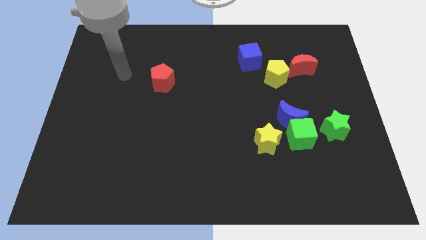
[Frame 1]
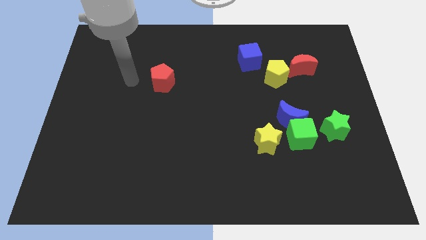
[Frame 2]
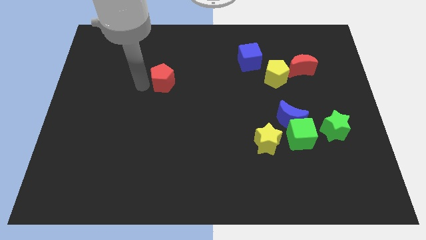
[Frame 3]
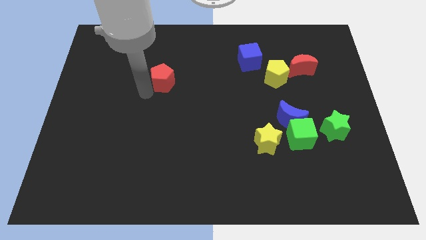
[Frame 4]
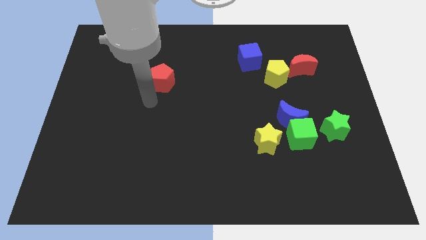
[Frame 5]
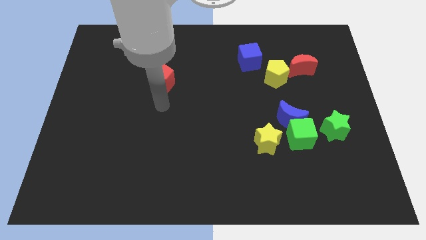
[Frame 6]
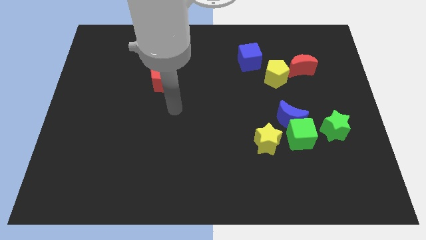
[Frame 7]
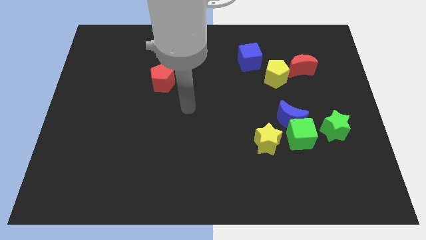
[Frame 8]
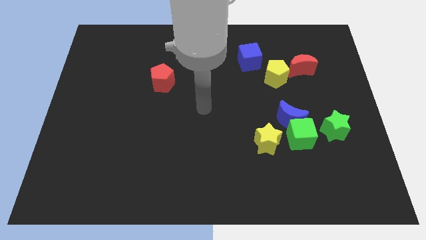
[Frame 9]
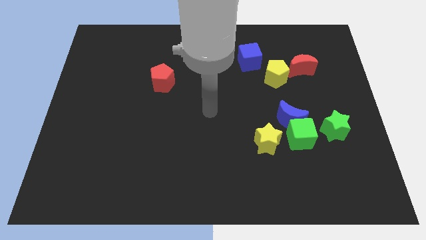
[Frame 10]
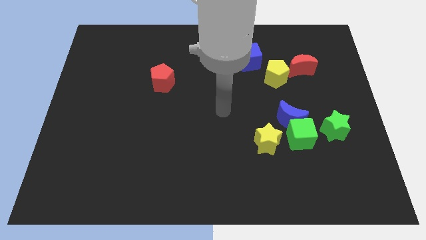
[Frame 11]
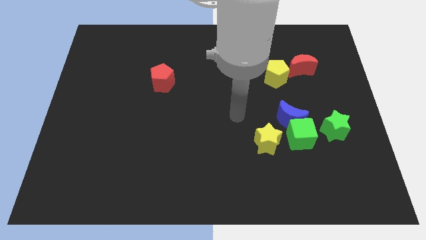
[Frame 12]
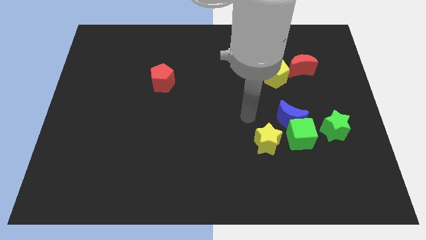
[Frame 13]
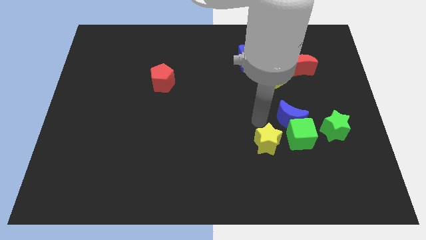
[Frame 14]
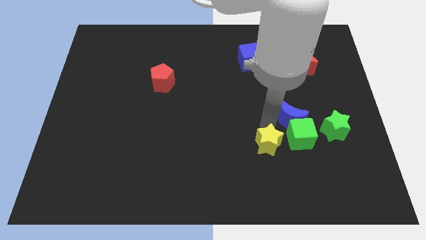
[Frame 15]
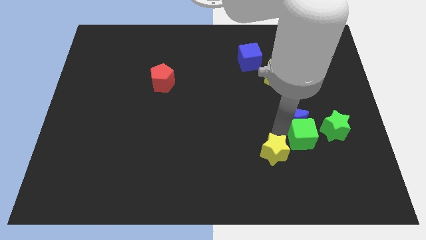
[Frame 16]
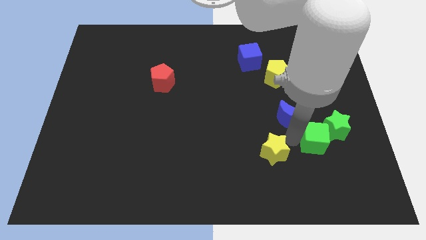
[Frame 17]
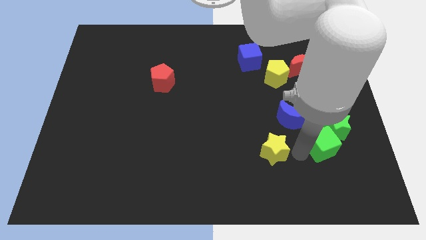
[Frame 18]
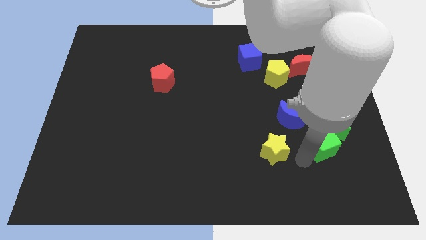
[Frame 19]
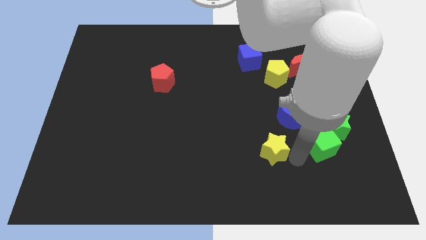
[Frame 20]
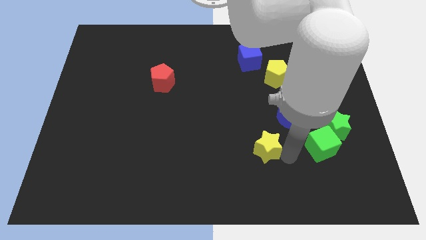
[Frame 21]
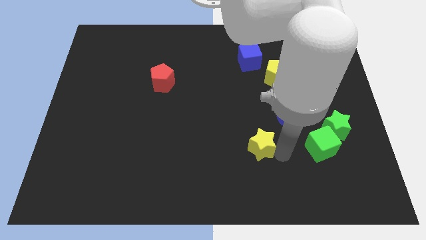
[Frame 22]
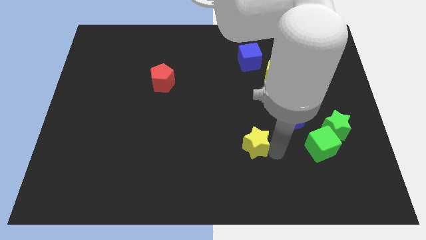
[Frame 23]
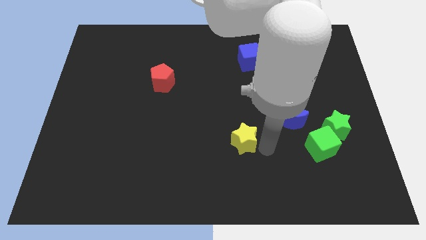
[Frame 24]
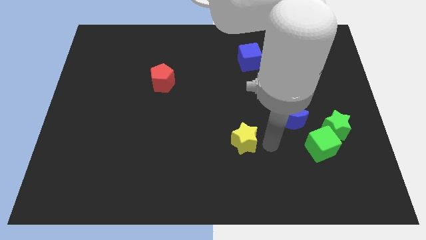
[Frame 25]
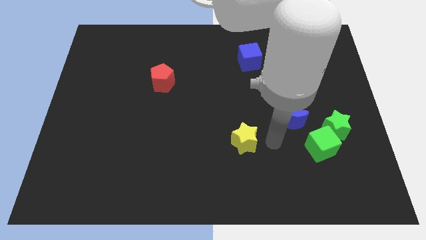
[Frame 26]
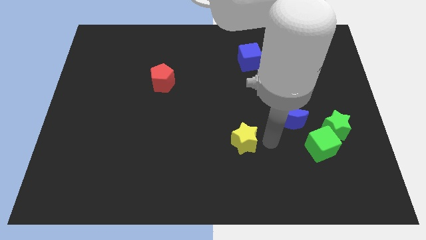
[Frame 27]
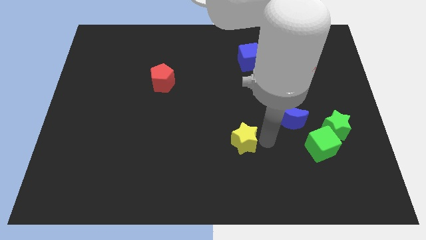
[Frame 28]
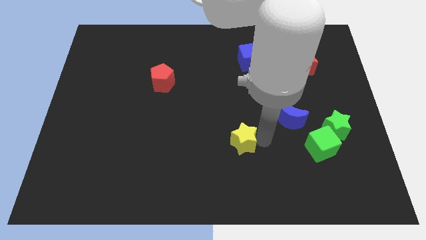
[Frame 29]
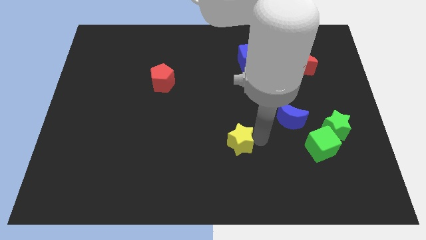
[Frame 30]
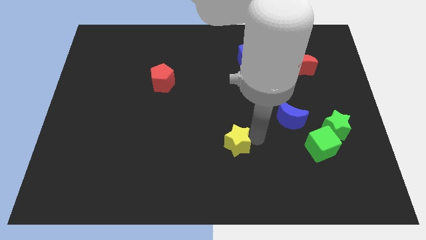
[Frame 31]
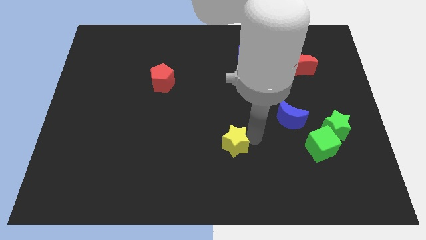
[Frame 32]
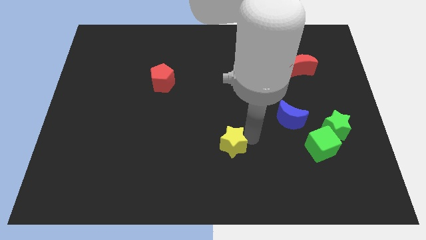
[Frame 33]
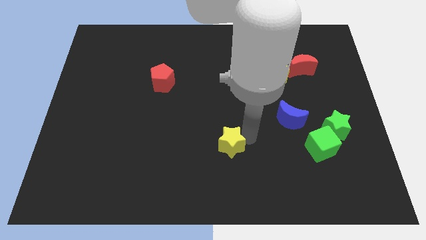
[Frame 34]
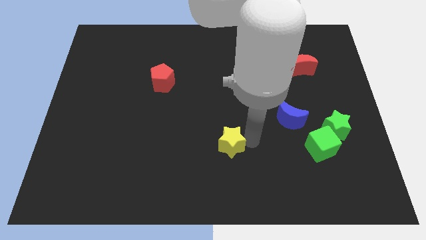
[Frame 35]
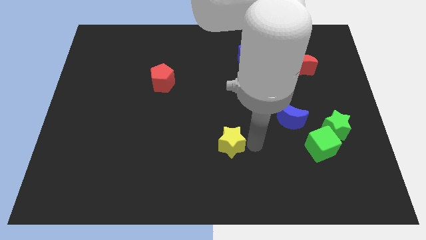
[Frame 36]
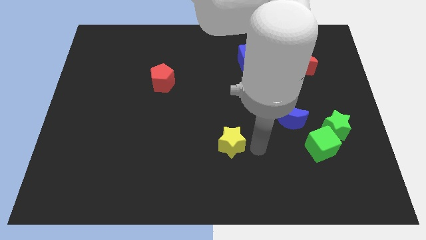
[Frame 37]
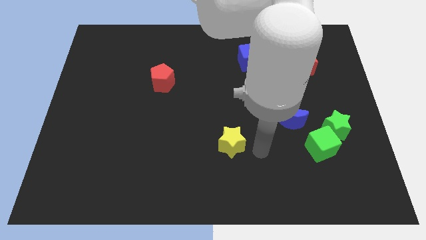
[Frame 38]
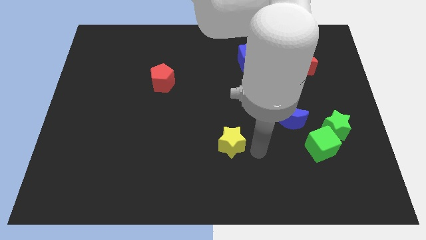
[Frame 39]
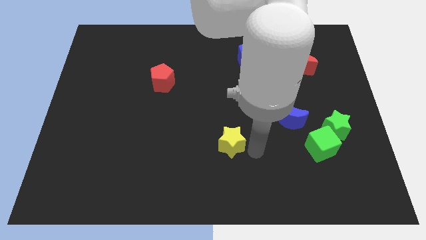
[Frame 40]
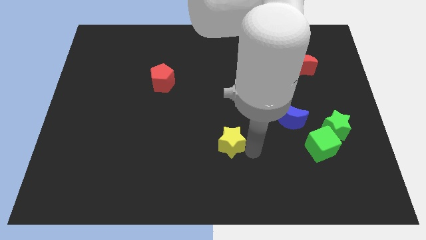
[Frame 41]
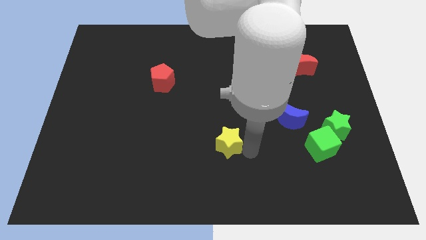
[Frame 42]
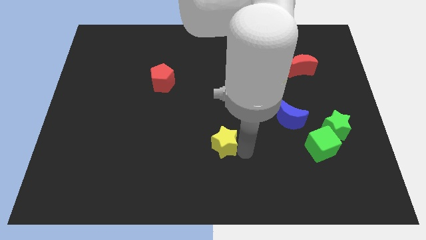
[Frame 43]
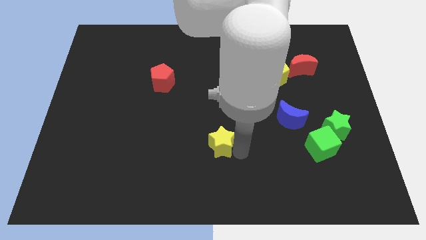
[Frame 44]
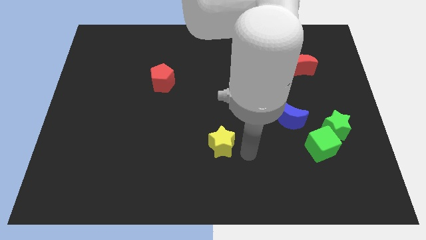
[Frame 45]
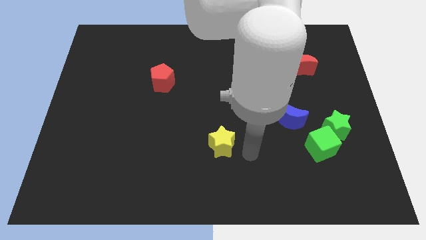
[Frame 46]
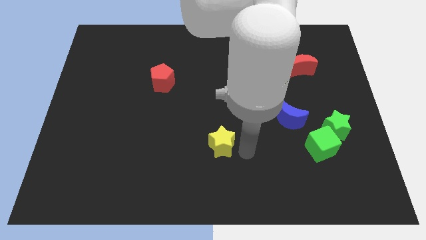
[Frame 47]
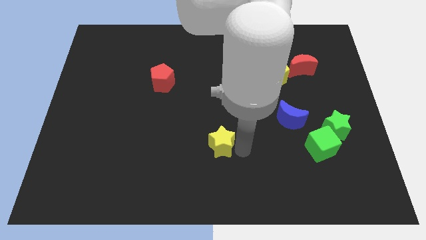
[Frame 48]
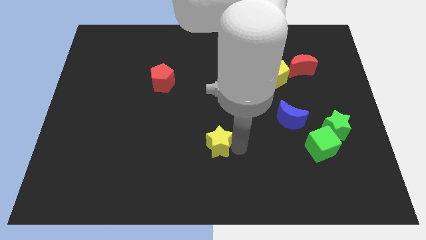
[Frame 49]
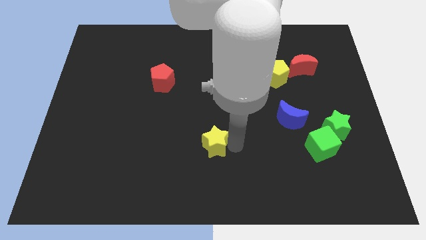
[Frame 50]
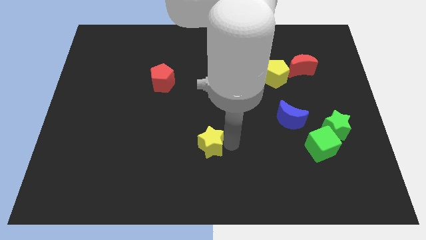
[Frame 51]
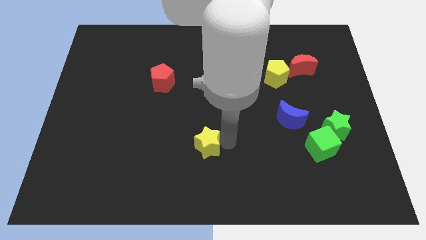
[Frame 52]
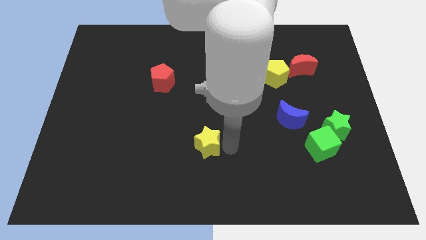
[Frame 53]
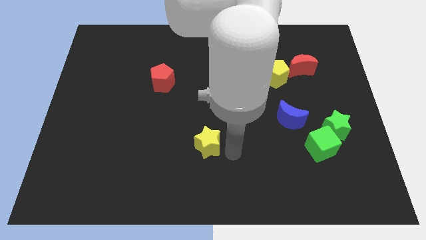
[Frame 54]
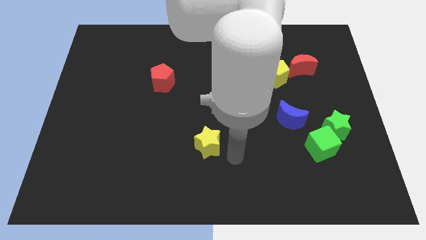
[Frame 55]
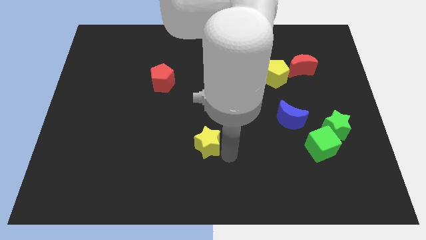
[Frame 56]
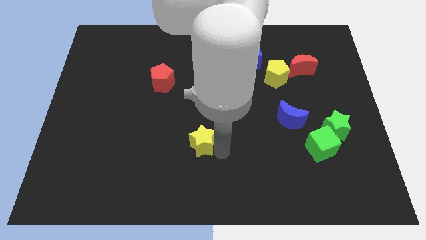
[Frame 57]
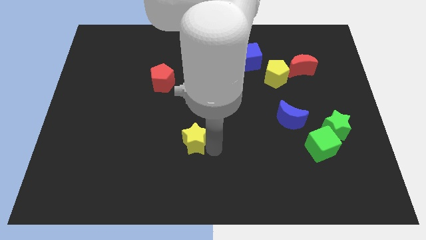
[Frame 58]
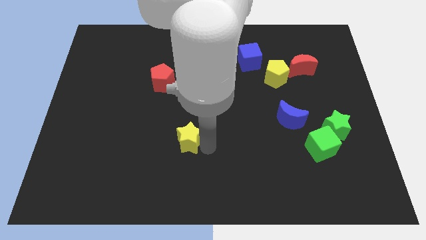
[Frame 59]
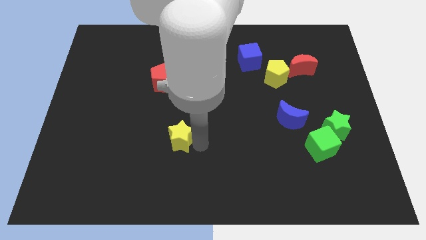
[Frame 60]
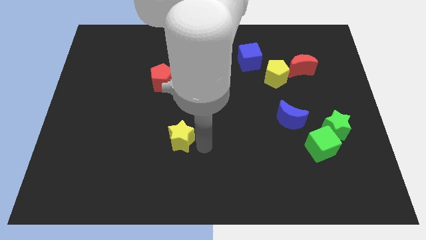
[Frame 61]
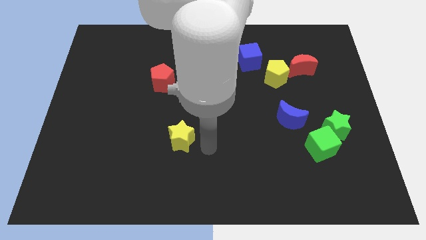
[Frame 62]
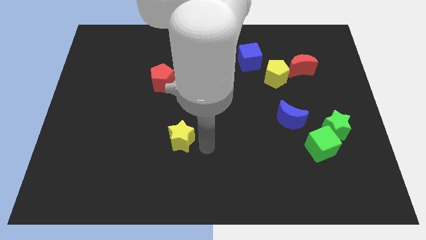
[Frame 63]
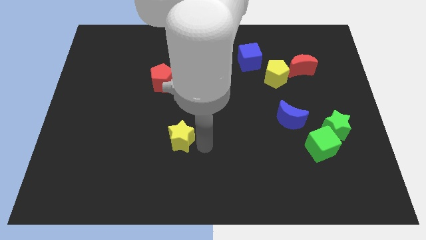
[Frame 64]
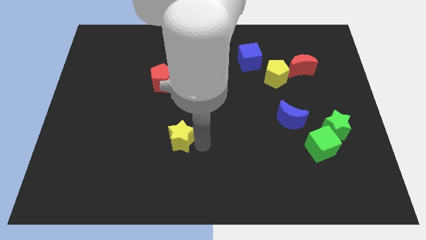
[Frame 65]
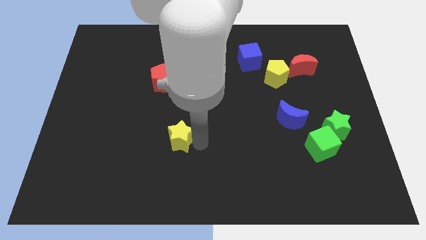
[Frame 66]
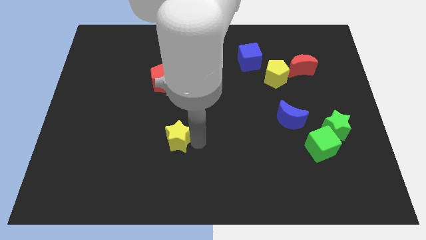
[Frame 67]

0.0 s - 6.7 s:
move the yellow star to the left

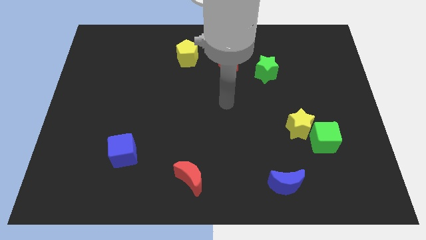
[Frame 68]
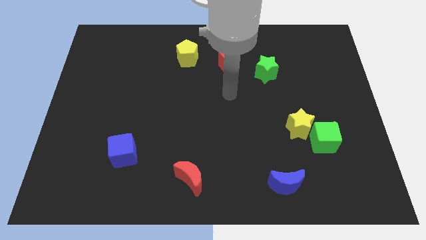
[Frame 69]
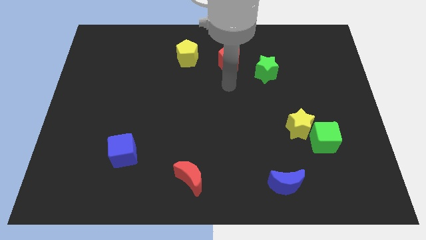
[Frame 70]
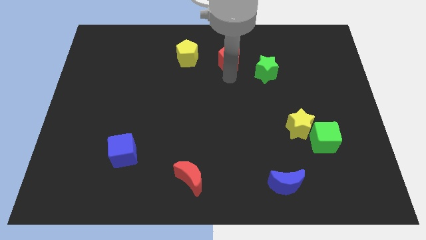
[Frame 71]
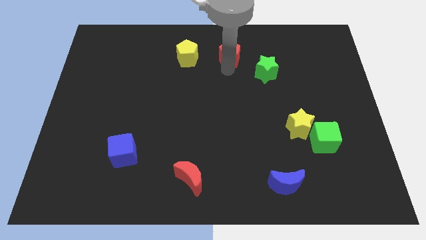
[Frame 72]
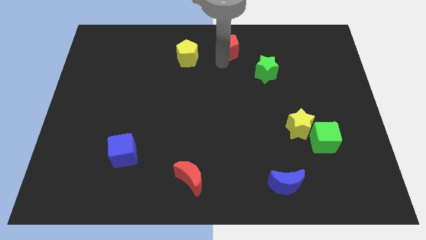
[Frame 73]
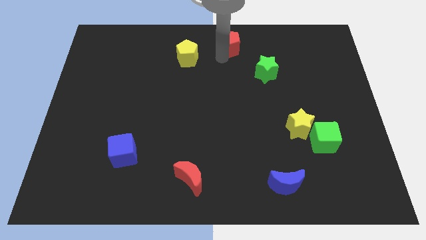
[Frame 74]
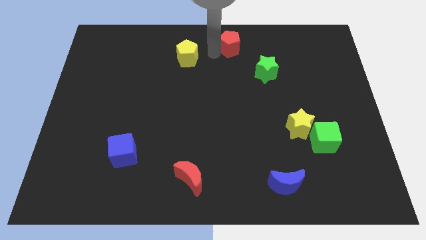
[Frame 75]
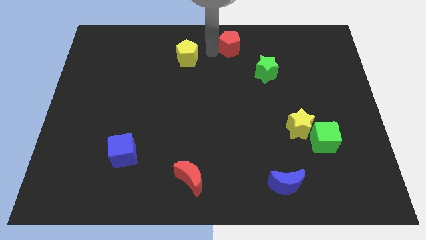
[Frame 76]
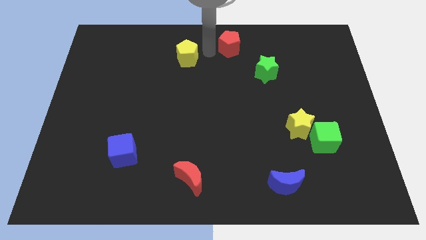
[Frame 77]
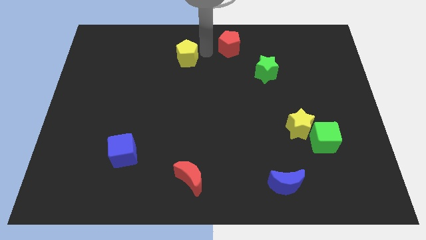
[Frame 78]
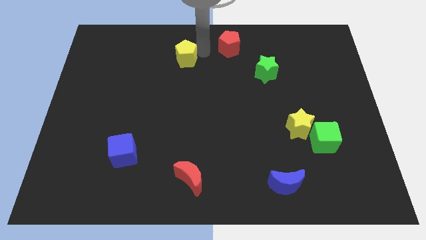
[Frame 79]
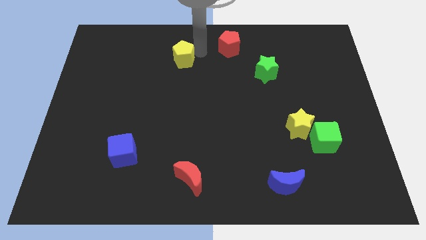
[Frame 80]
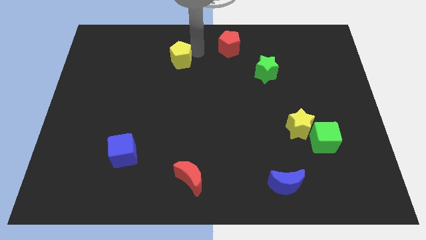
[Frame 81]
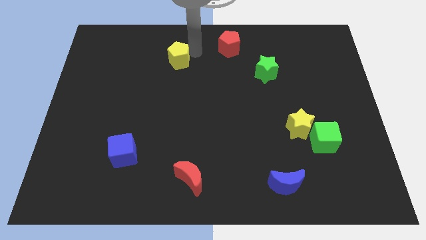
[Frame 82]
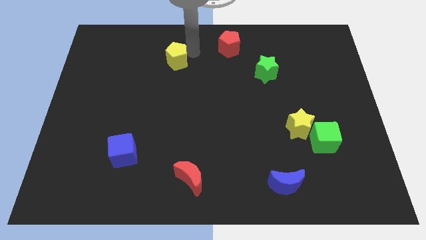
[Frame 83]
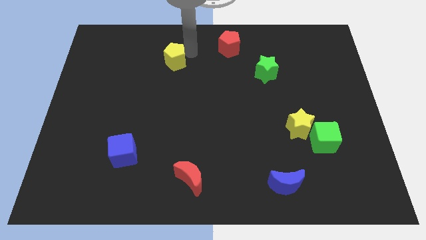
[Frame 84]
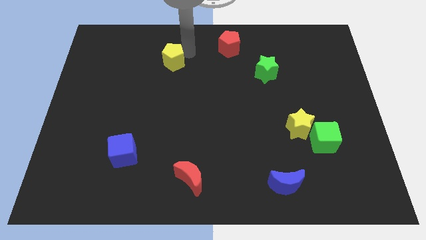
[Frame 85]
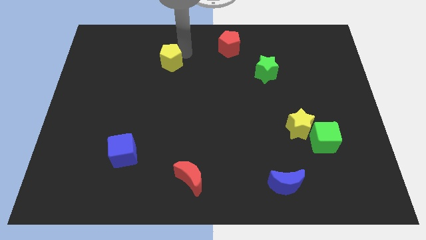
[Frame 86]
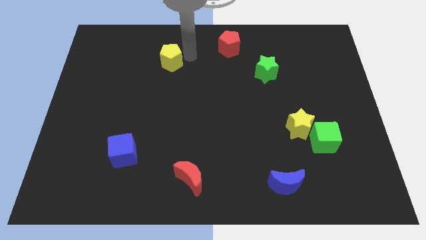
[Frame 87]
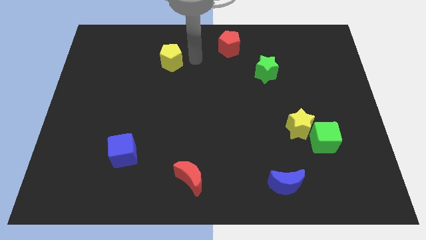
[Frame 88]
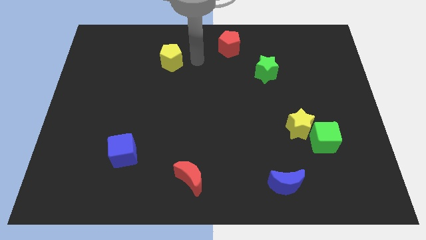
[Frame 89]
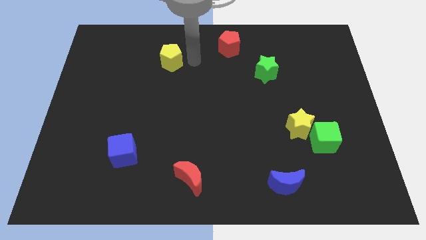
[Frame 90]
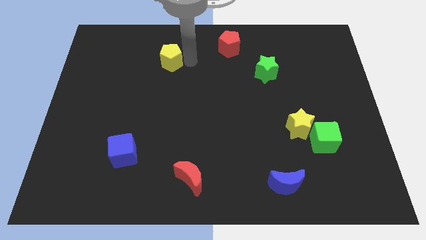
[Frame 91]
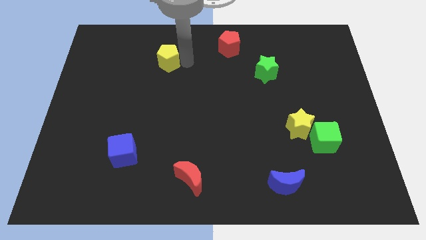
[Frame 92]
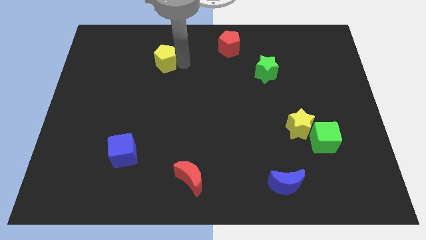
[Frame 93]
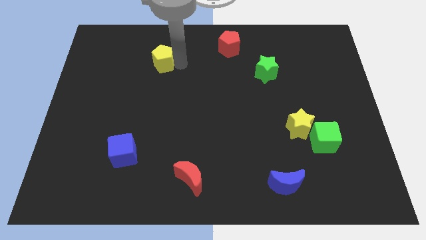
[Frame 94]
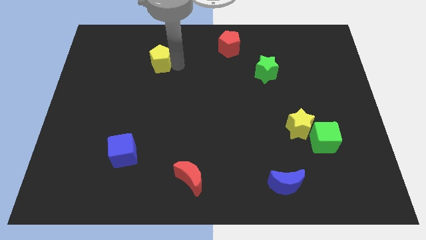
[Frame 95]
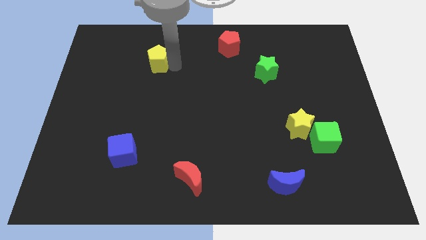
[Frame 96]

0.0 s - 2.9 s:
move the yellow pentagon a little to the left
